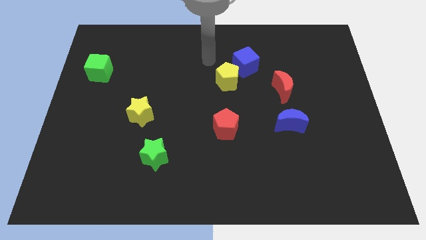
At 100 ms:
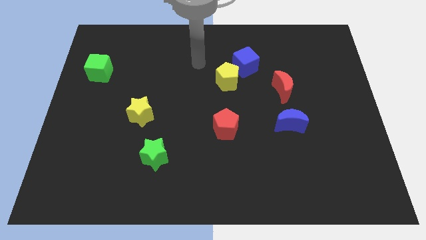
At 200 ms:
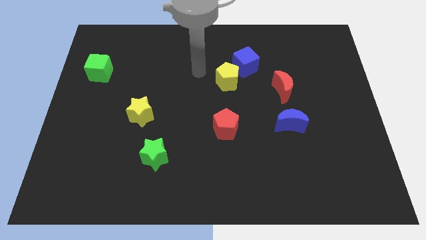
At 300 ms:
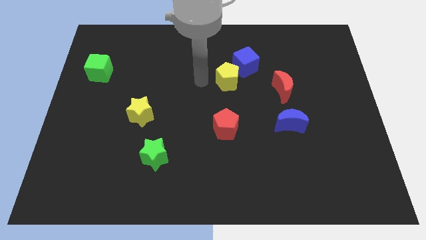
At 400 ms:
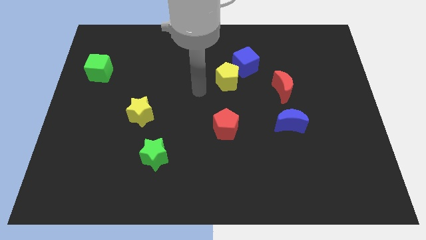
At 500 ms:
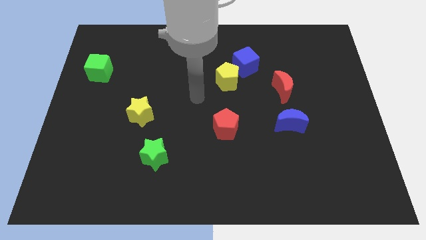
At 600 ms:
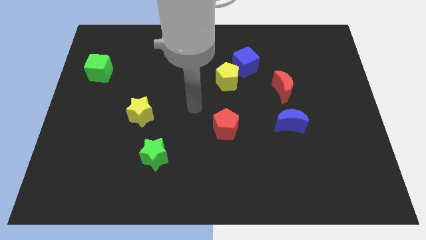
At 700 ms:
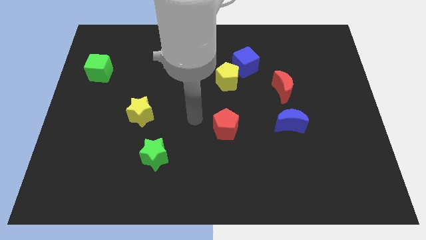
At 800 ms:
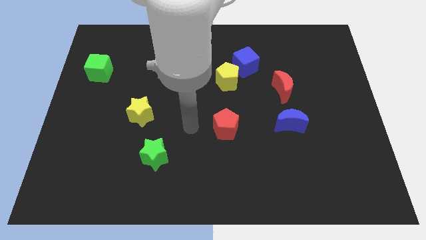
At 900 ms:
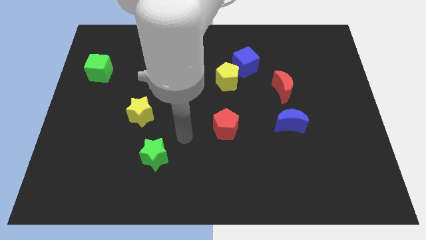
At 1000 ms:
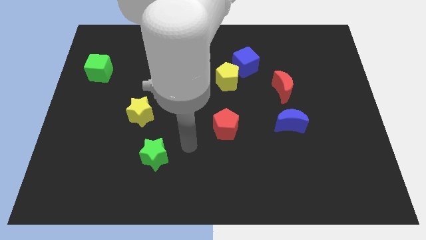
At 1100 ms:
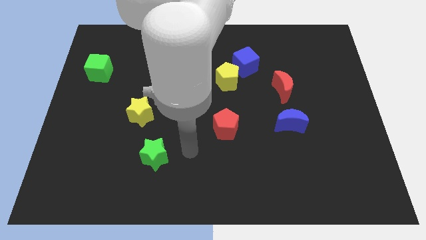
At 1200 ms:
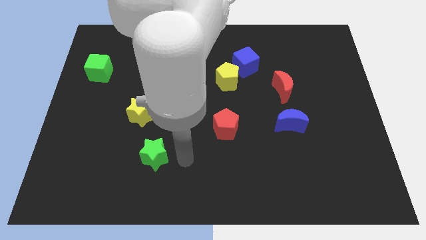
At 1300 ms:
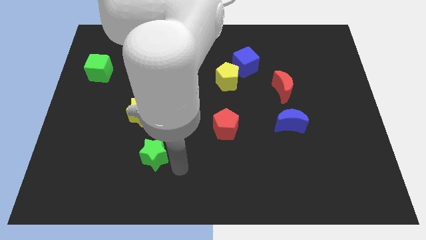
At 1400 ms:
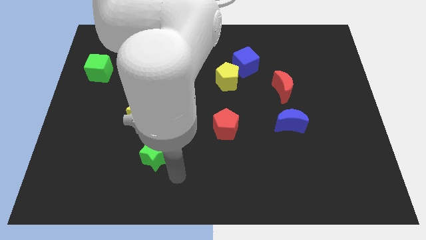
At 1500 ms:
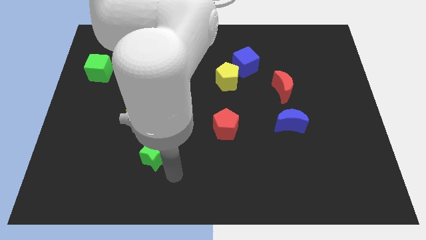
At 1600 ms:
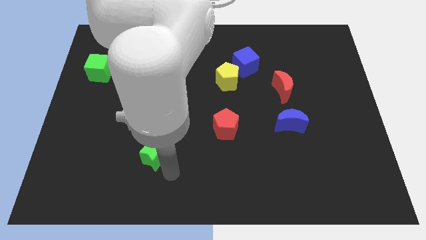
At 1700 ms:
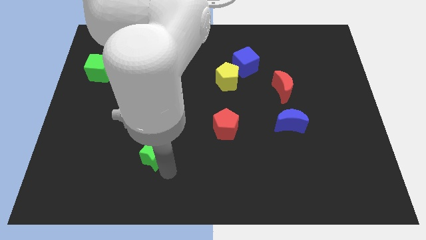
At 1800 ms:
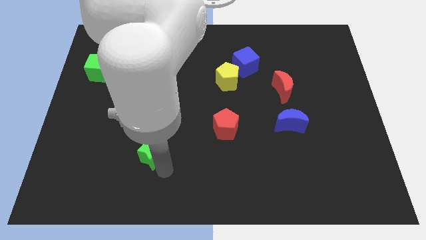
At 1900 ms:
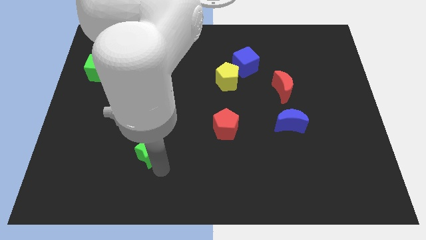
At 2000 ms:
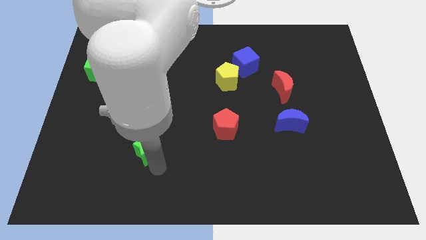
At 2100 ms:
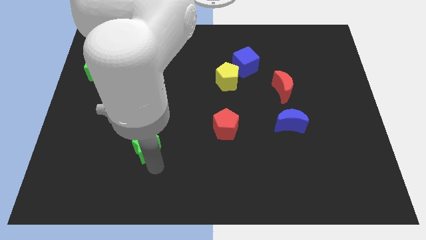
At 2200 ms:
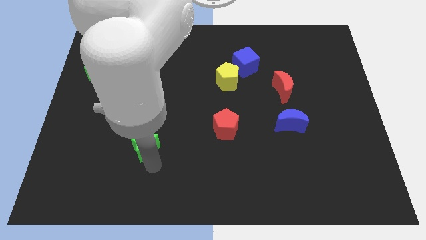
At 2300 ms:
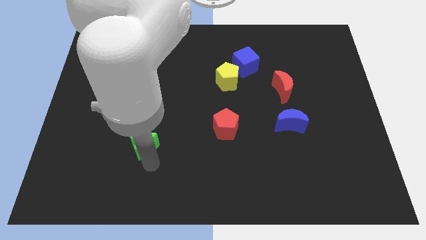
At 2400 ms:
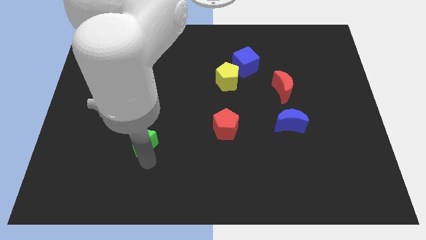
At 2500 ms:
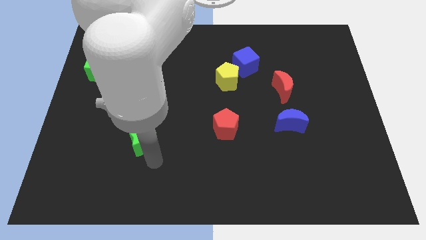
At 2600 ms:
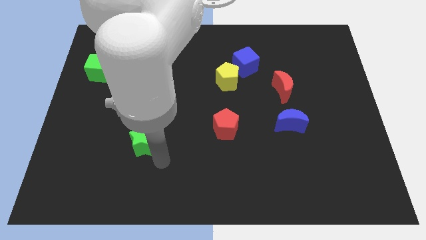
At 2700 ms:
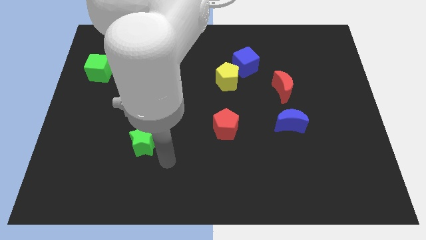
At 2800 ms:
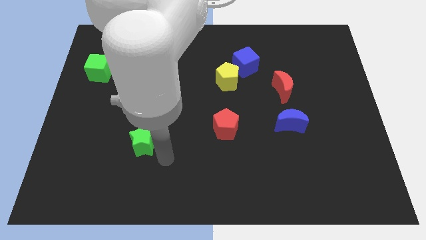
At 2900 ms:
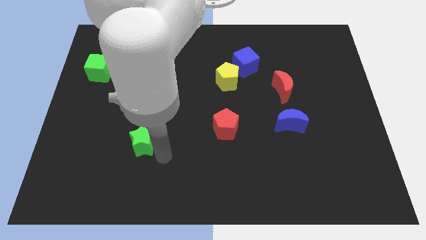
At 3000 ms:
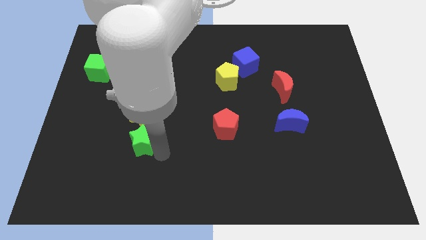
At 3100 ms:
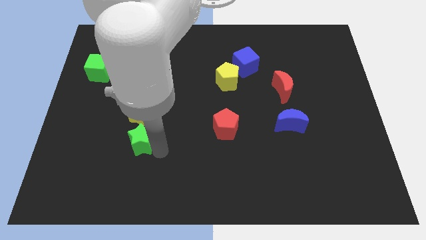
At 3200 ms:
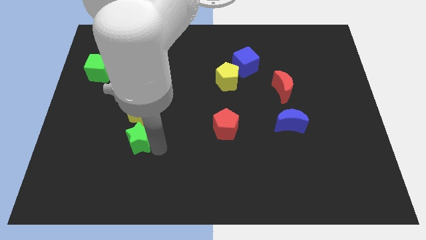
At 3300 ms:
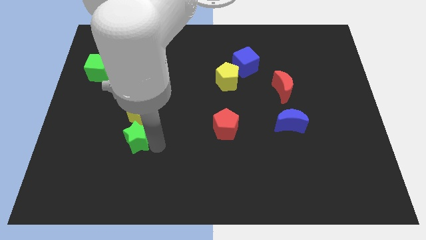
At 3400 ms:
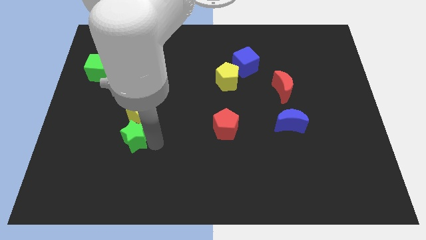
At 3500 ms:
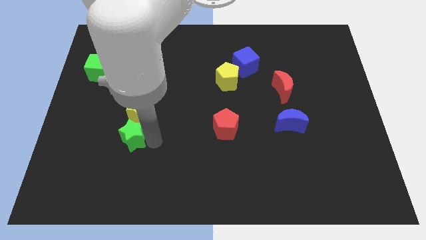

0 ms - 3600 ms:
slide the green star up and to the left diagonally slightly

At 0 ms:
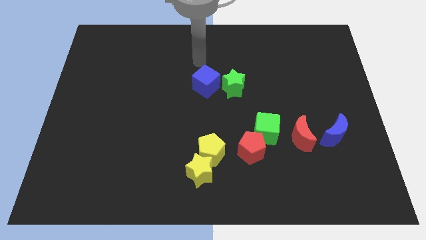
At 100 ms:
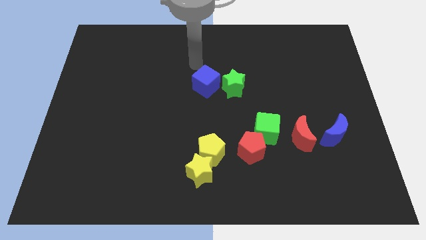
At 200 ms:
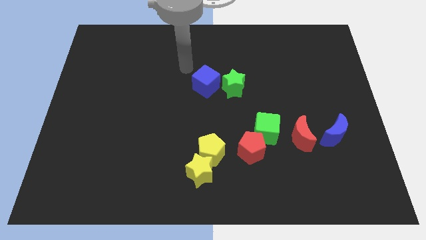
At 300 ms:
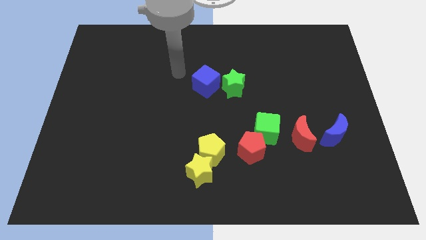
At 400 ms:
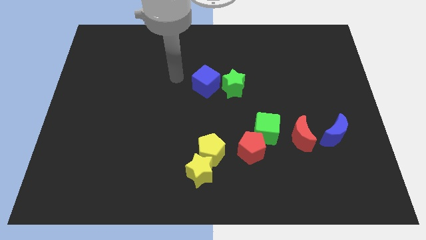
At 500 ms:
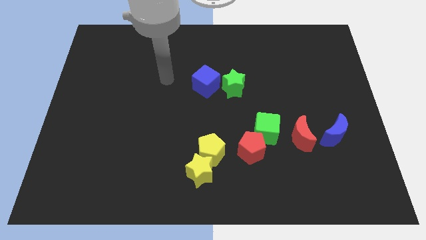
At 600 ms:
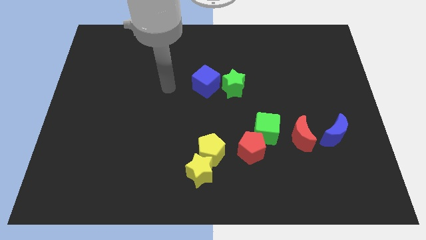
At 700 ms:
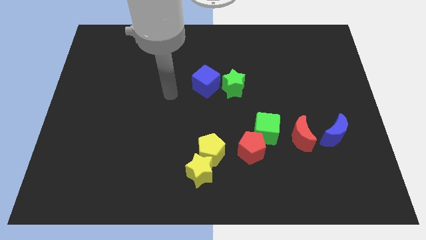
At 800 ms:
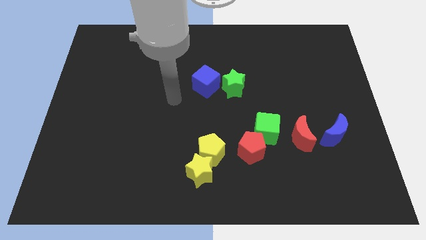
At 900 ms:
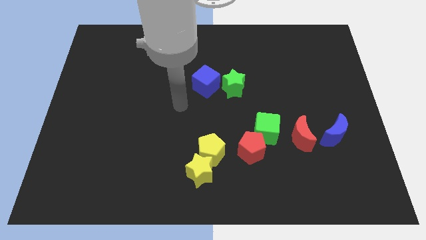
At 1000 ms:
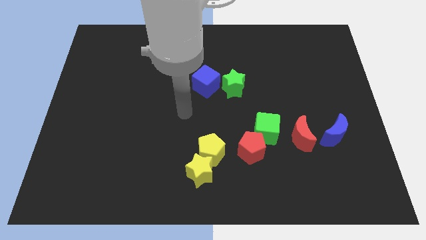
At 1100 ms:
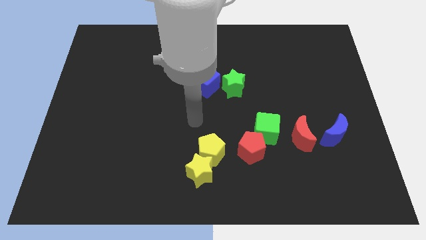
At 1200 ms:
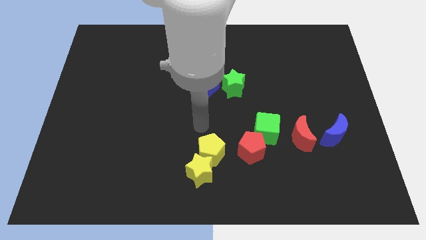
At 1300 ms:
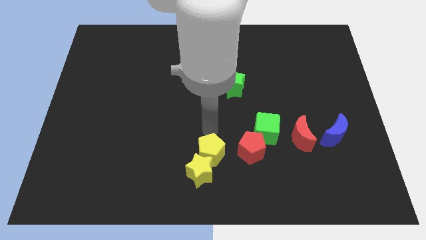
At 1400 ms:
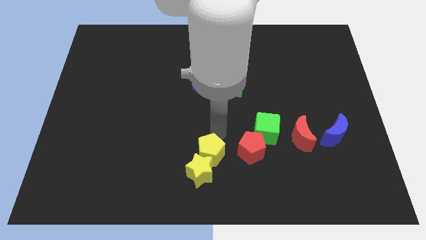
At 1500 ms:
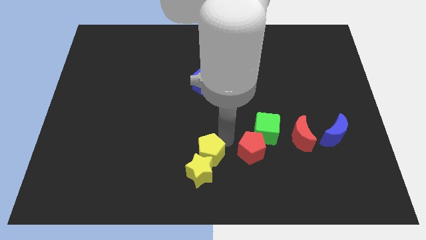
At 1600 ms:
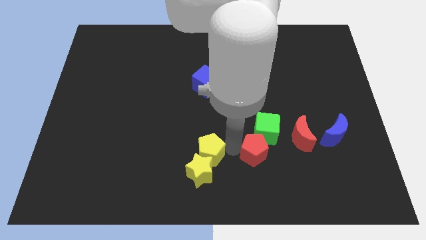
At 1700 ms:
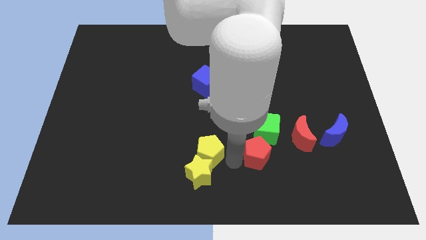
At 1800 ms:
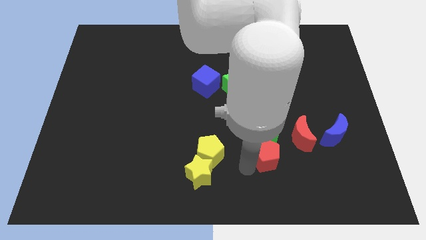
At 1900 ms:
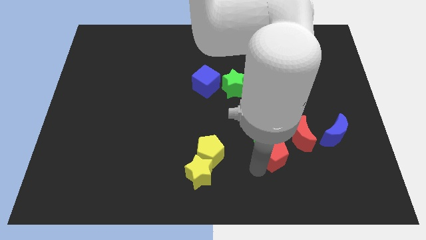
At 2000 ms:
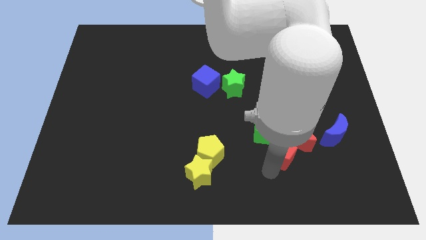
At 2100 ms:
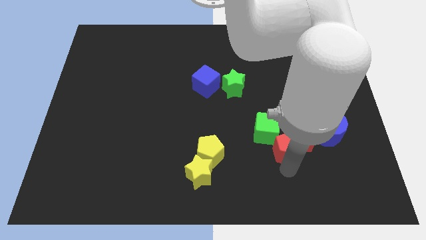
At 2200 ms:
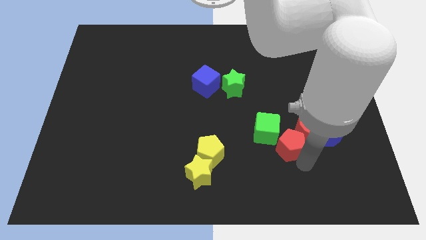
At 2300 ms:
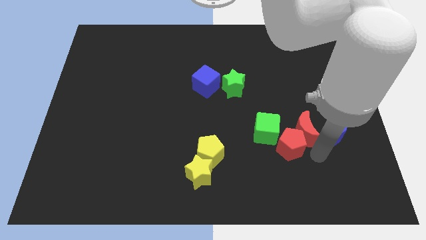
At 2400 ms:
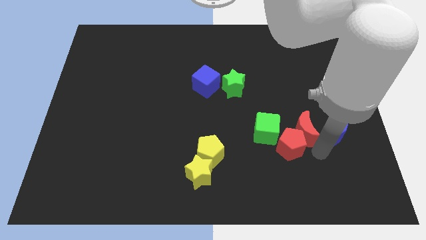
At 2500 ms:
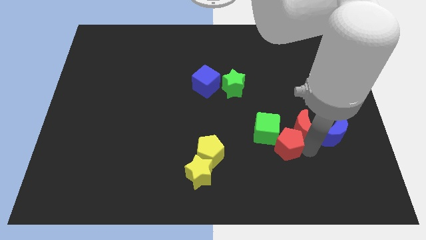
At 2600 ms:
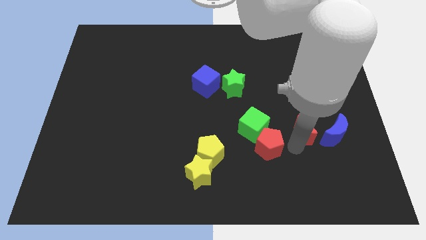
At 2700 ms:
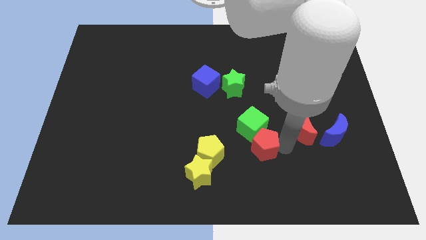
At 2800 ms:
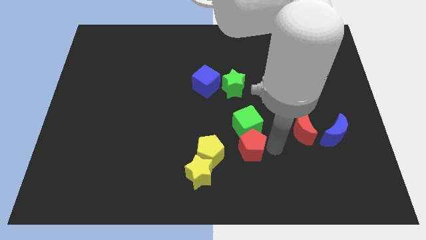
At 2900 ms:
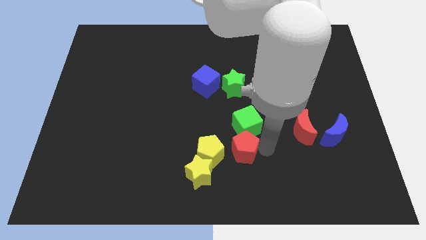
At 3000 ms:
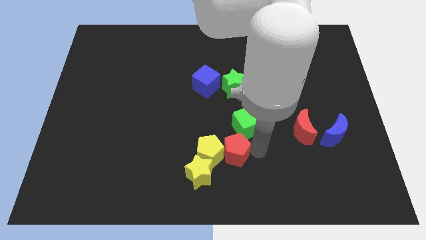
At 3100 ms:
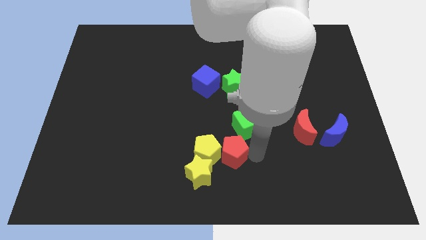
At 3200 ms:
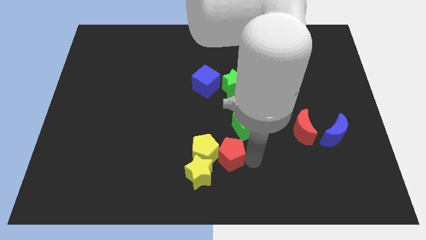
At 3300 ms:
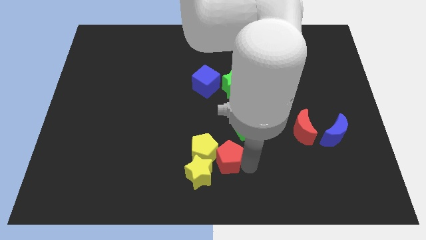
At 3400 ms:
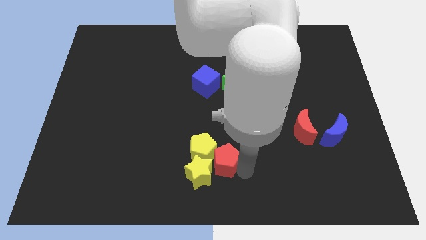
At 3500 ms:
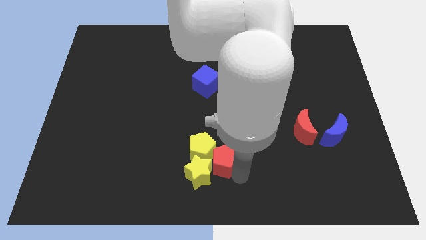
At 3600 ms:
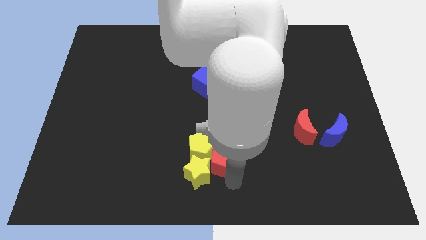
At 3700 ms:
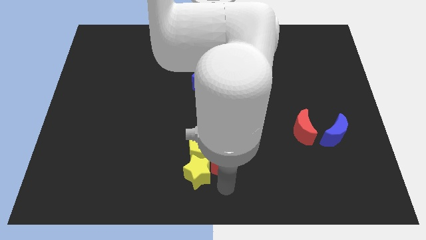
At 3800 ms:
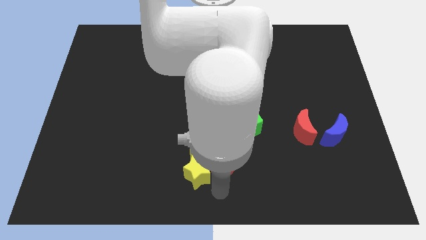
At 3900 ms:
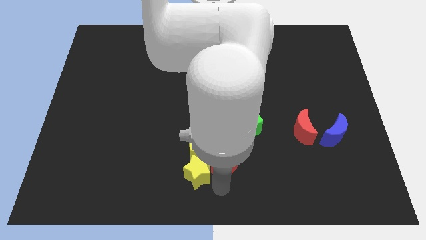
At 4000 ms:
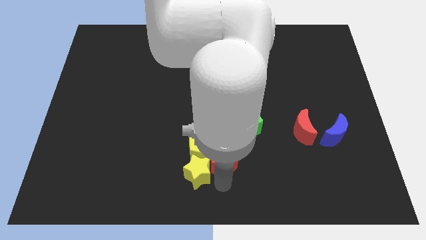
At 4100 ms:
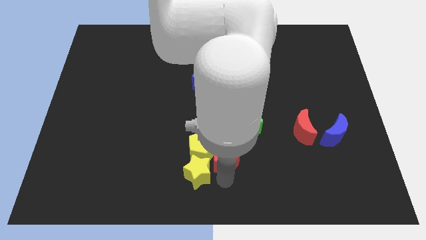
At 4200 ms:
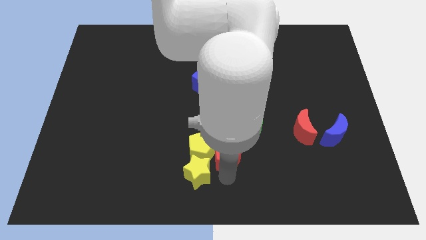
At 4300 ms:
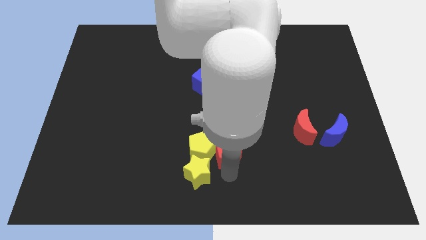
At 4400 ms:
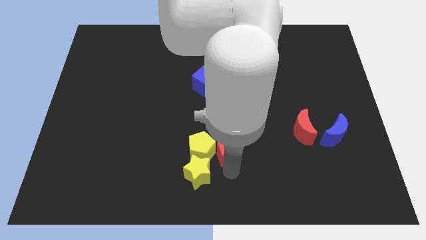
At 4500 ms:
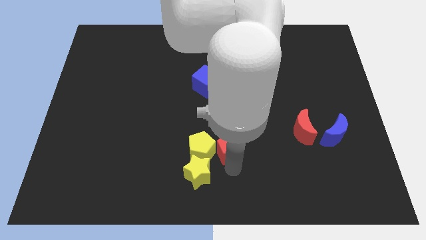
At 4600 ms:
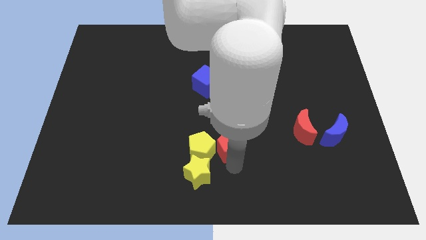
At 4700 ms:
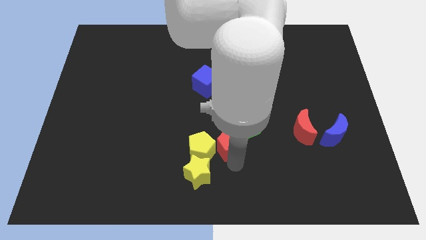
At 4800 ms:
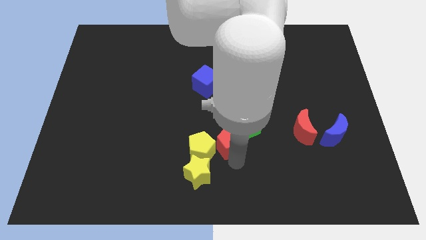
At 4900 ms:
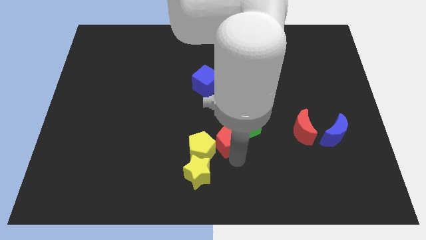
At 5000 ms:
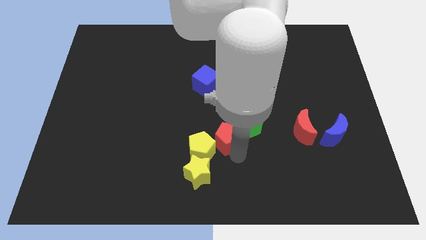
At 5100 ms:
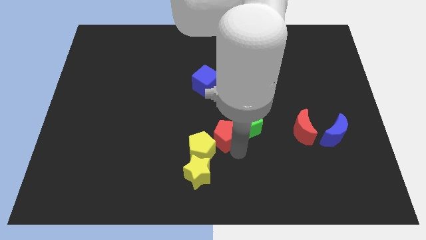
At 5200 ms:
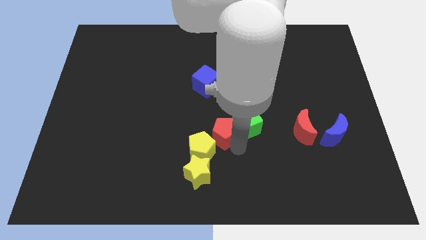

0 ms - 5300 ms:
slide the red pentagon a little diagonally up and to the left
